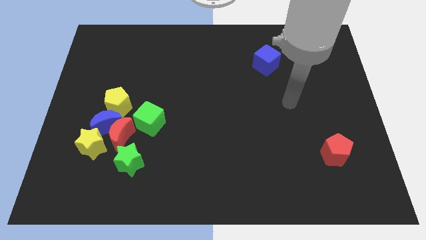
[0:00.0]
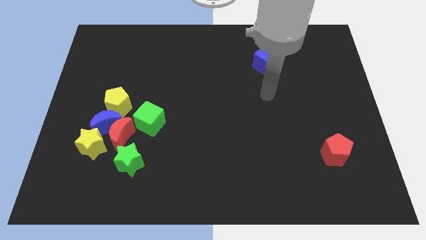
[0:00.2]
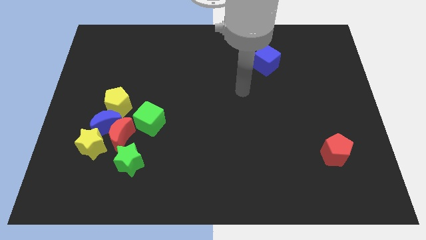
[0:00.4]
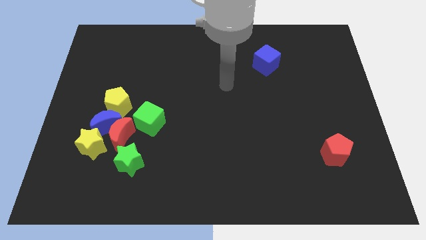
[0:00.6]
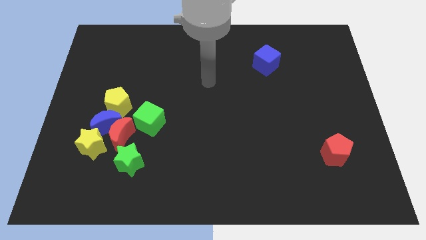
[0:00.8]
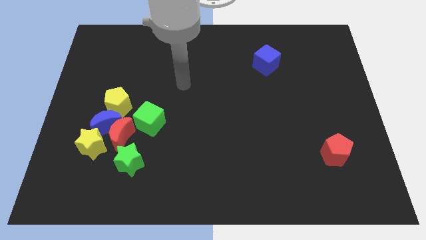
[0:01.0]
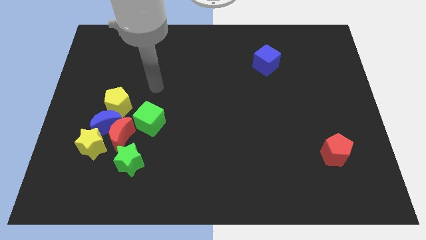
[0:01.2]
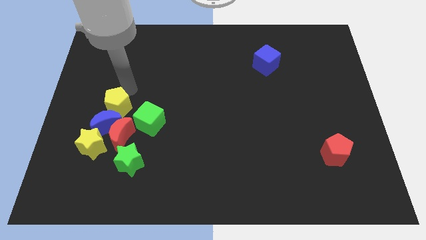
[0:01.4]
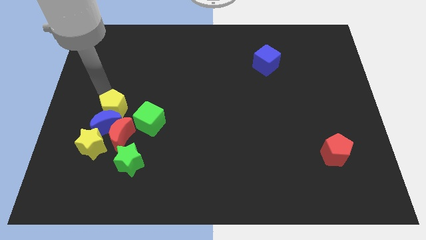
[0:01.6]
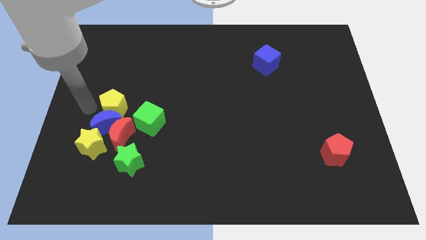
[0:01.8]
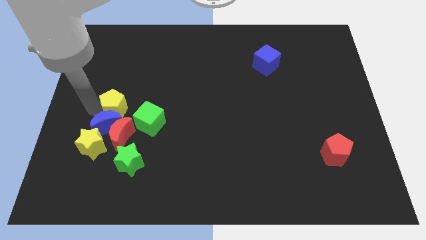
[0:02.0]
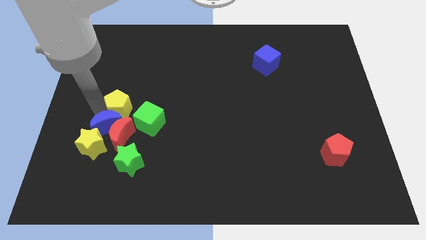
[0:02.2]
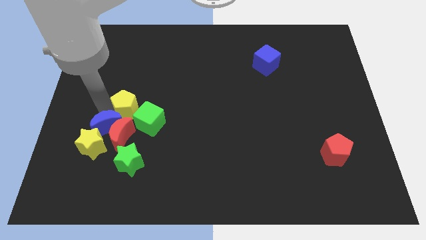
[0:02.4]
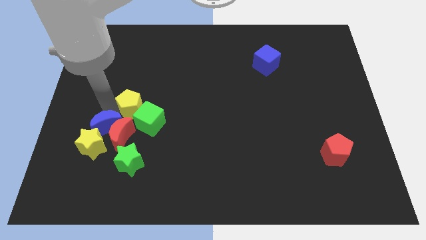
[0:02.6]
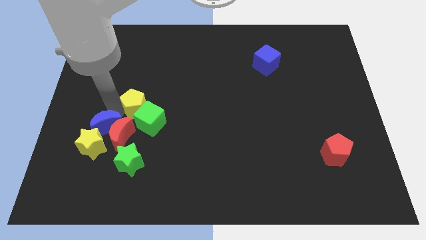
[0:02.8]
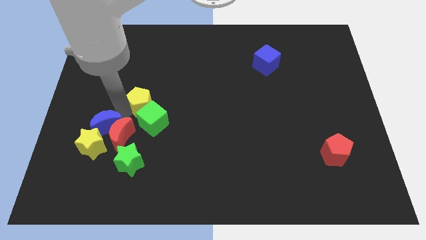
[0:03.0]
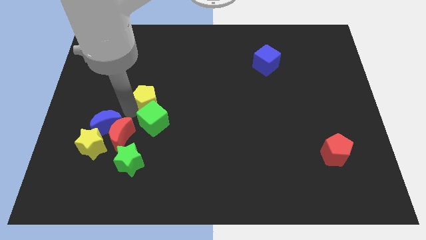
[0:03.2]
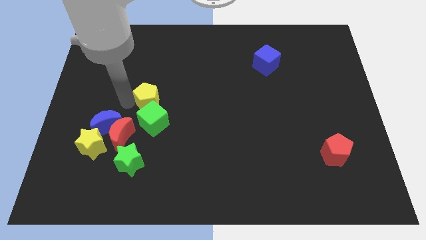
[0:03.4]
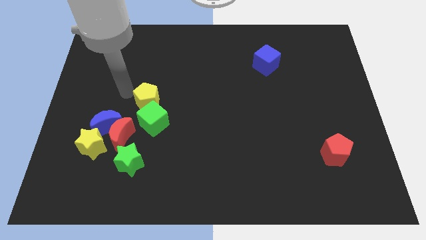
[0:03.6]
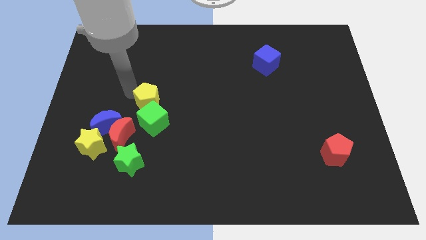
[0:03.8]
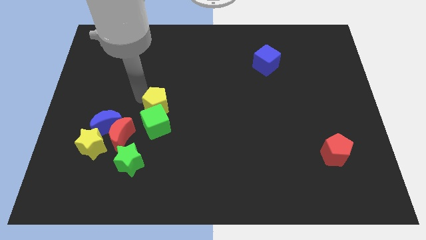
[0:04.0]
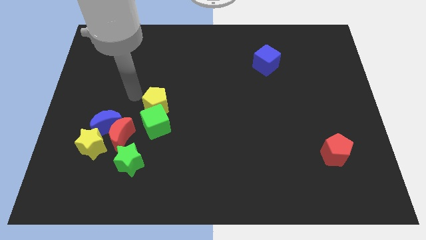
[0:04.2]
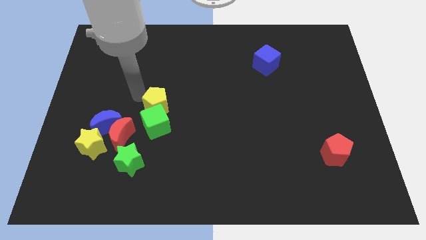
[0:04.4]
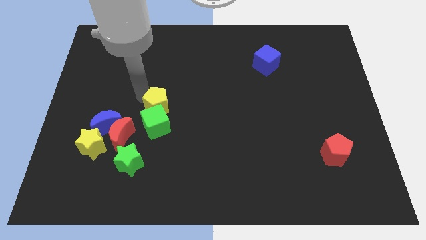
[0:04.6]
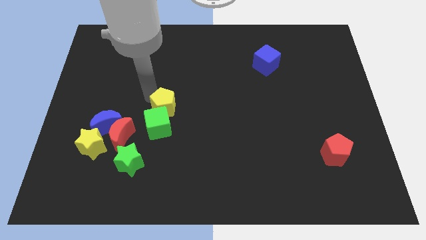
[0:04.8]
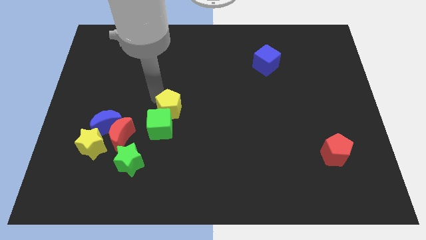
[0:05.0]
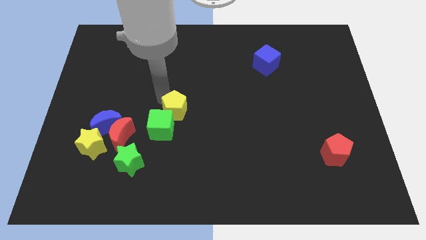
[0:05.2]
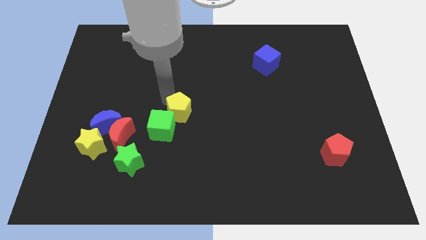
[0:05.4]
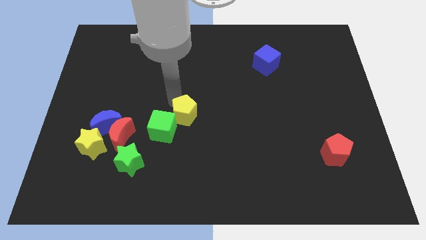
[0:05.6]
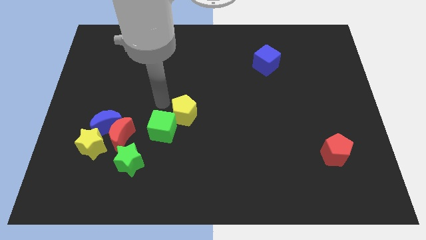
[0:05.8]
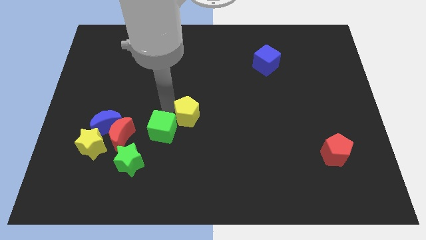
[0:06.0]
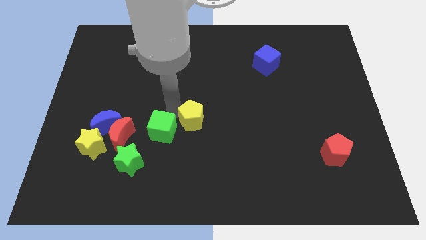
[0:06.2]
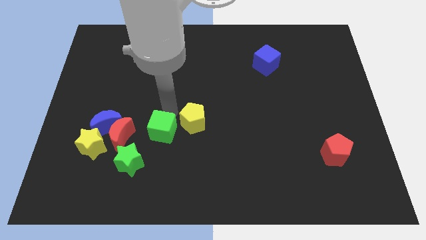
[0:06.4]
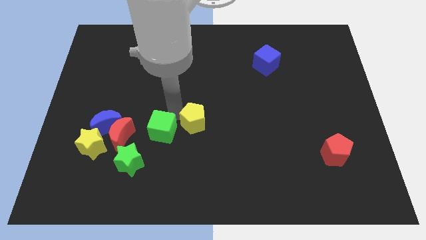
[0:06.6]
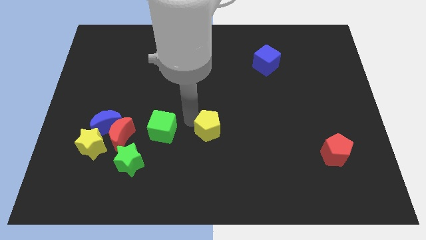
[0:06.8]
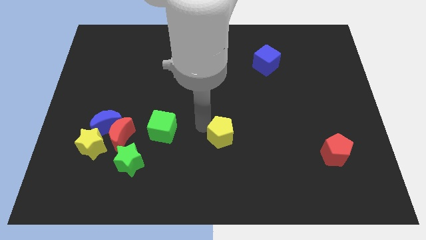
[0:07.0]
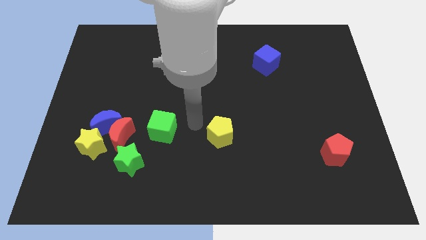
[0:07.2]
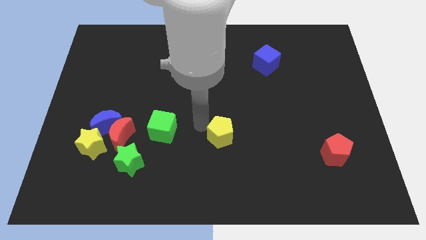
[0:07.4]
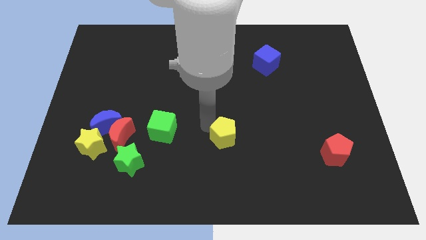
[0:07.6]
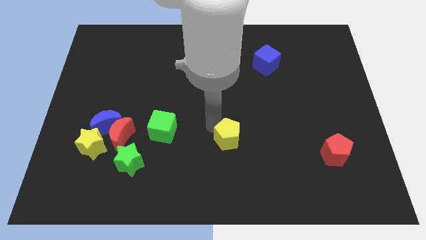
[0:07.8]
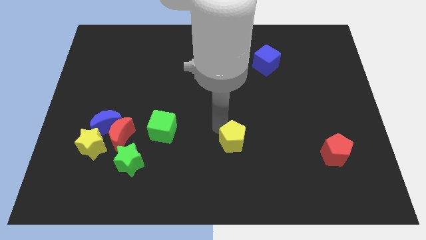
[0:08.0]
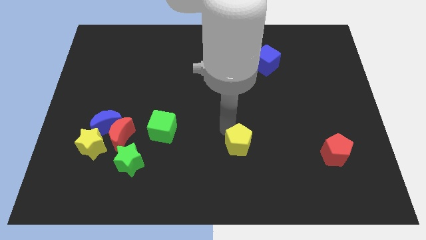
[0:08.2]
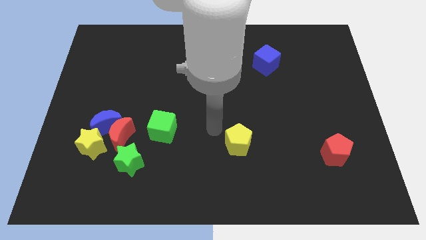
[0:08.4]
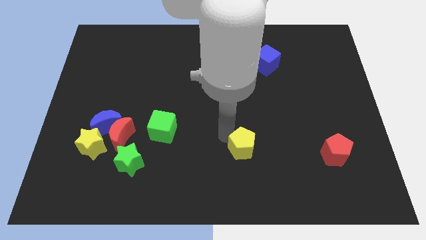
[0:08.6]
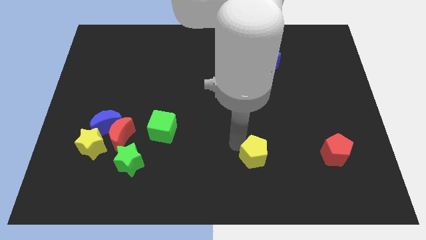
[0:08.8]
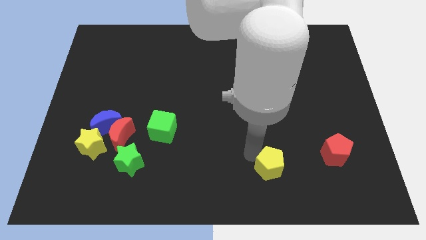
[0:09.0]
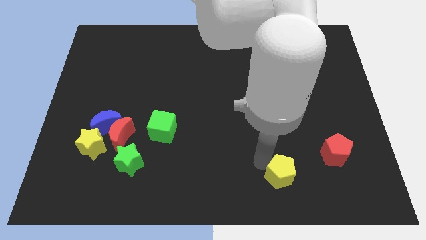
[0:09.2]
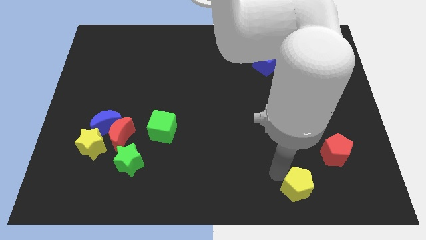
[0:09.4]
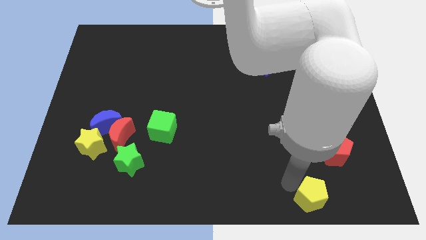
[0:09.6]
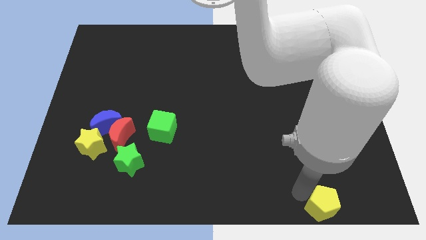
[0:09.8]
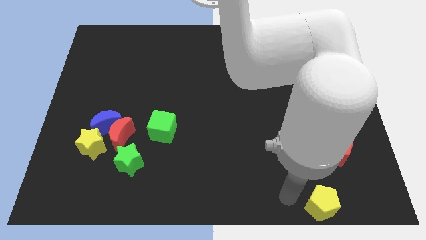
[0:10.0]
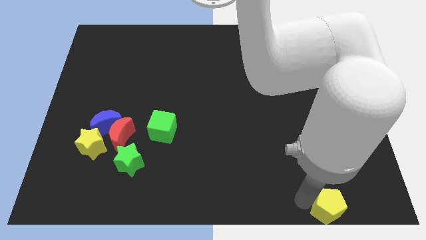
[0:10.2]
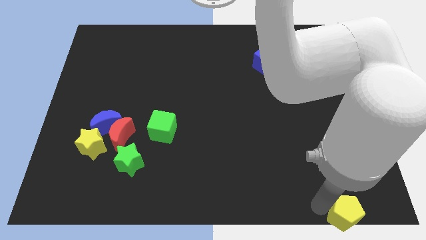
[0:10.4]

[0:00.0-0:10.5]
push the yellow pentagon to the bottom right of the board
